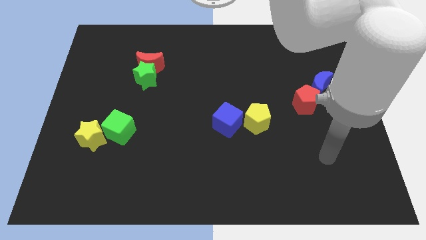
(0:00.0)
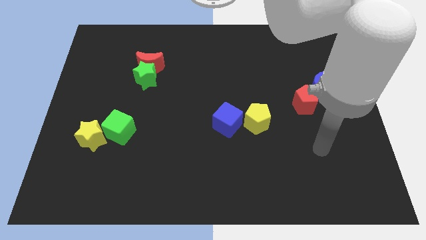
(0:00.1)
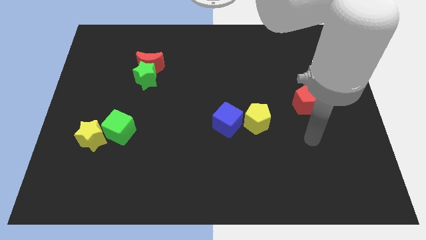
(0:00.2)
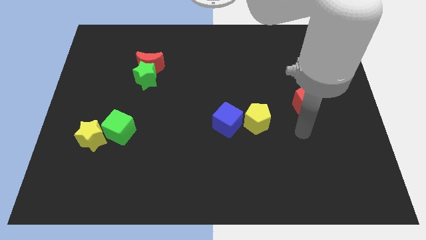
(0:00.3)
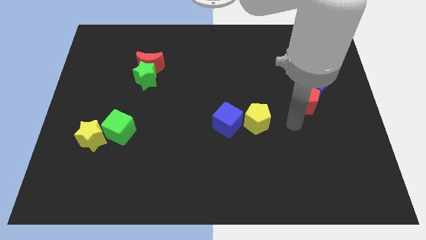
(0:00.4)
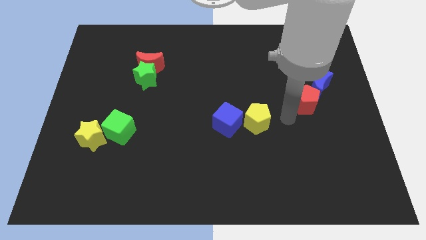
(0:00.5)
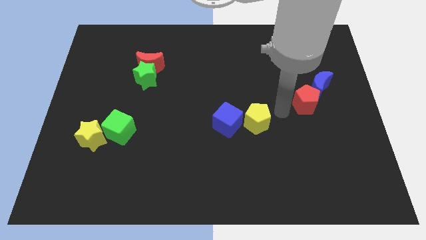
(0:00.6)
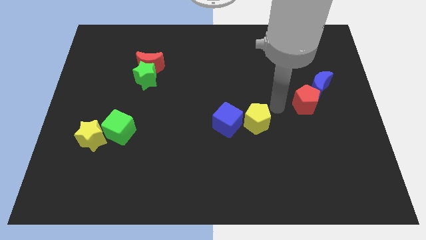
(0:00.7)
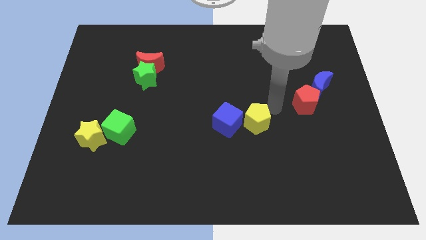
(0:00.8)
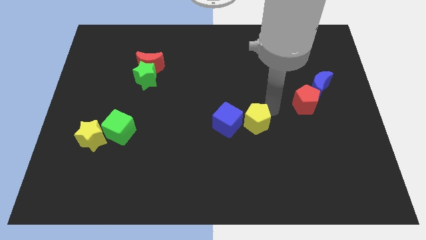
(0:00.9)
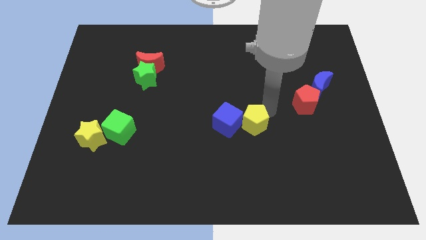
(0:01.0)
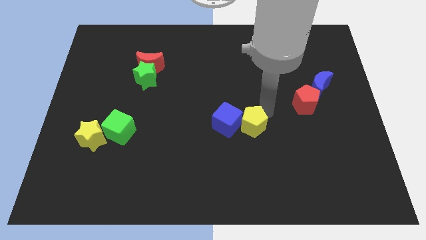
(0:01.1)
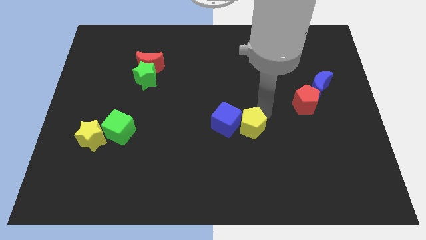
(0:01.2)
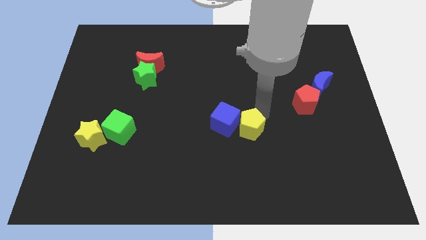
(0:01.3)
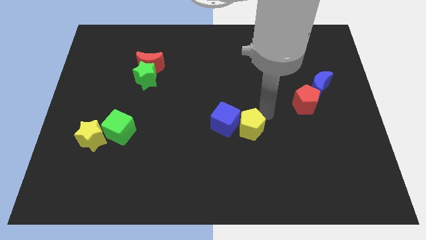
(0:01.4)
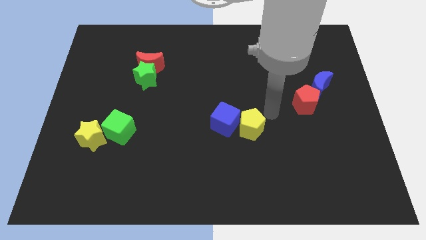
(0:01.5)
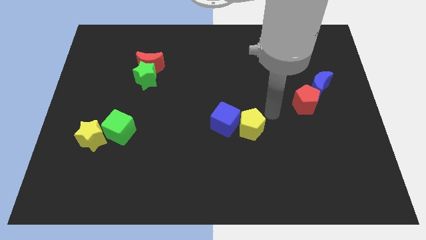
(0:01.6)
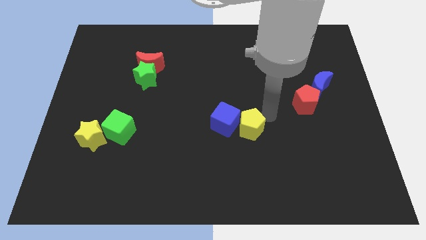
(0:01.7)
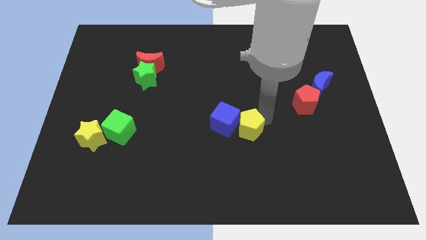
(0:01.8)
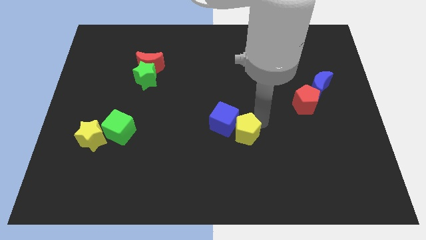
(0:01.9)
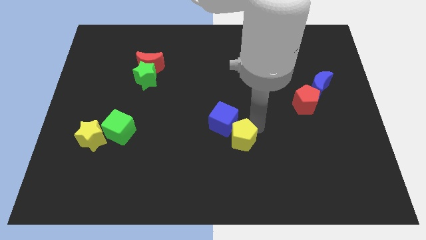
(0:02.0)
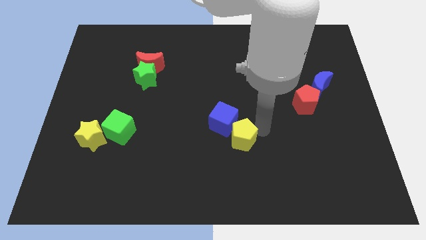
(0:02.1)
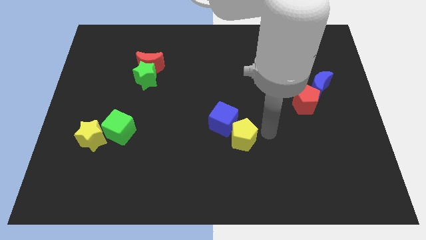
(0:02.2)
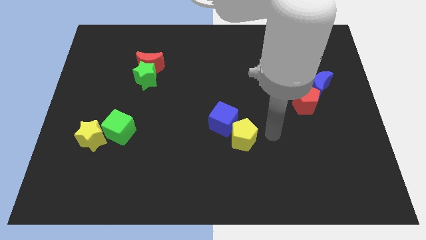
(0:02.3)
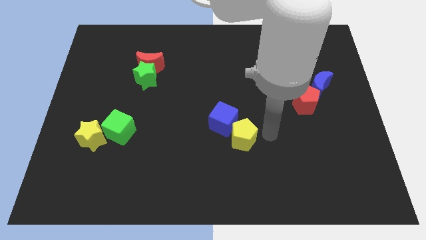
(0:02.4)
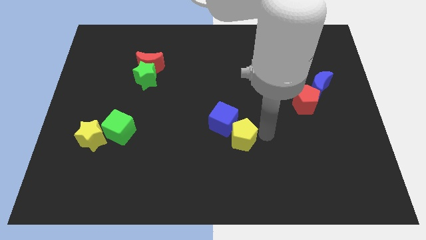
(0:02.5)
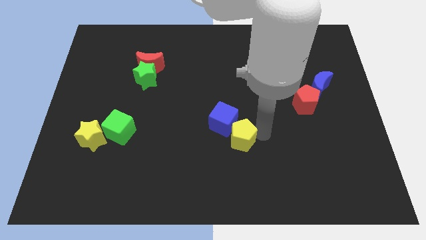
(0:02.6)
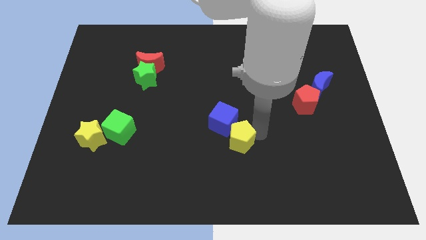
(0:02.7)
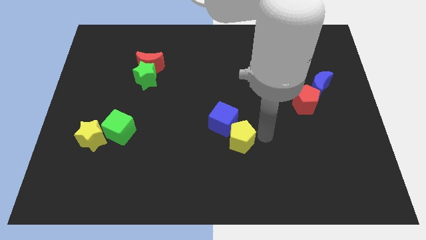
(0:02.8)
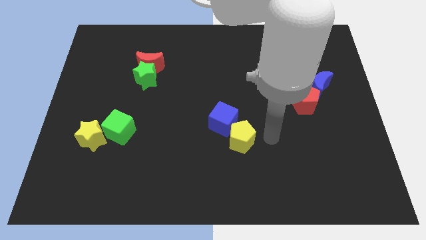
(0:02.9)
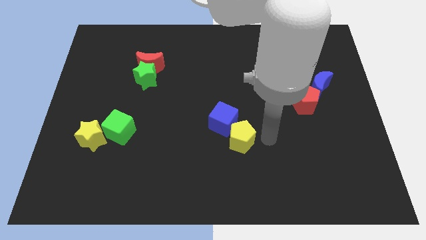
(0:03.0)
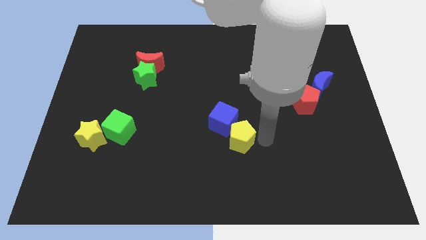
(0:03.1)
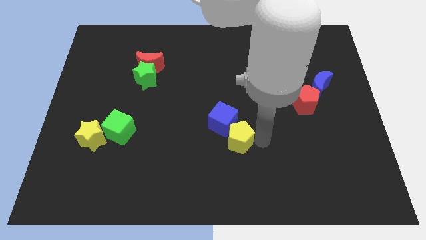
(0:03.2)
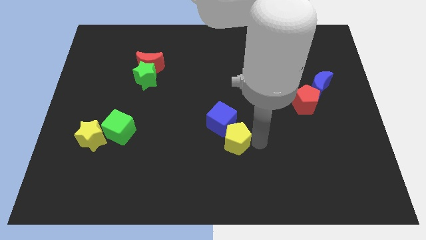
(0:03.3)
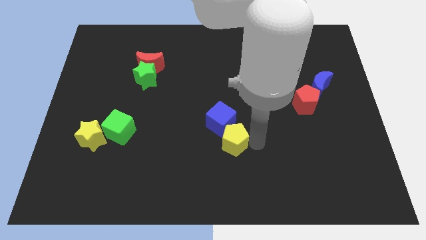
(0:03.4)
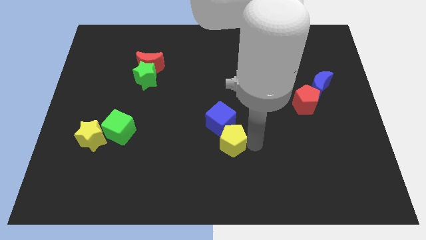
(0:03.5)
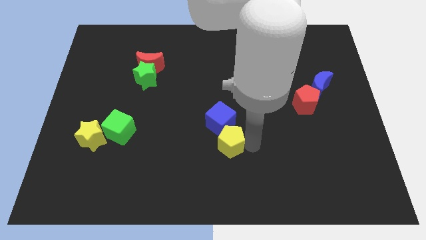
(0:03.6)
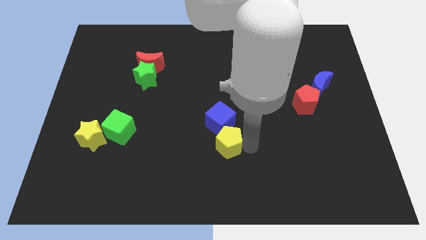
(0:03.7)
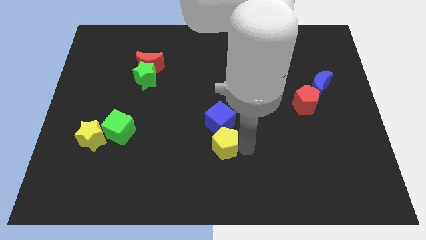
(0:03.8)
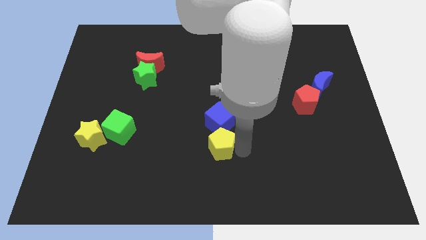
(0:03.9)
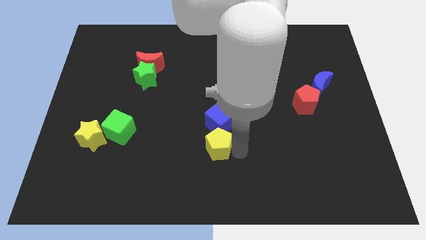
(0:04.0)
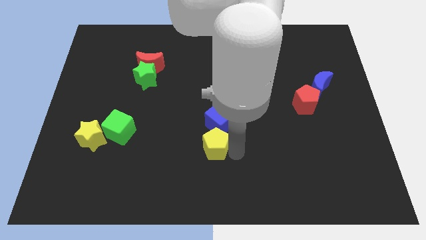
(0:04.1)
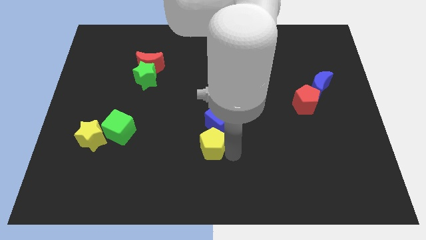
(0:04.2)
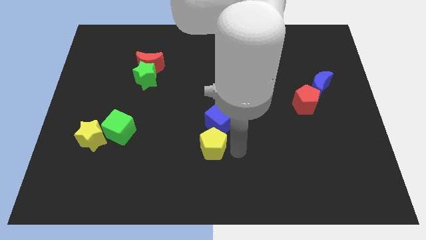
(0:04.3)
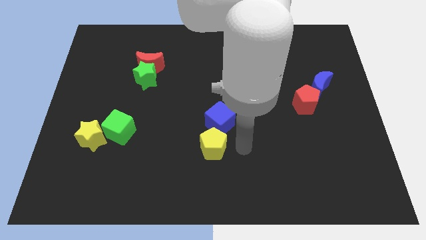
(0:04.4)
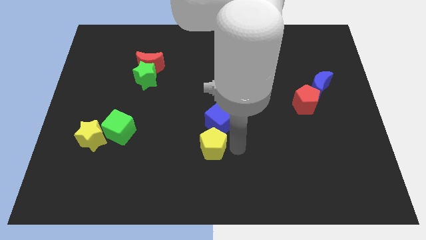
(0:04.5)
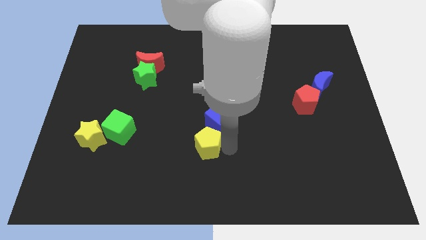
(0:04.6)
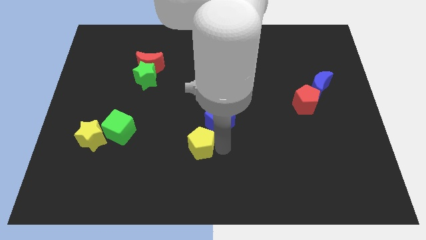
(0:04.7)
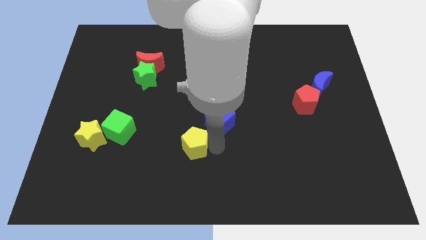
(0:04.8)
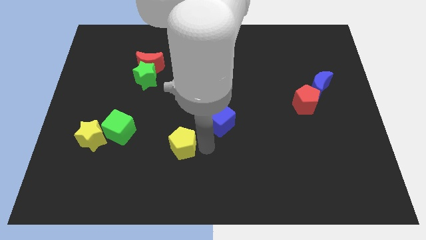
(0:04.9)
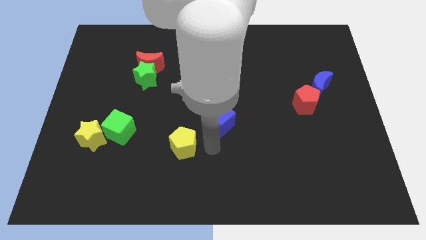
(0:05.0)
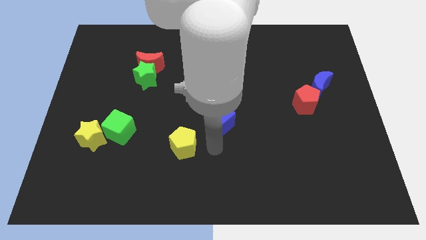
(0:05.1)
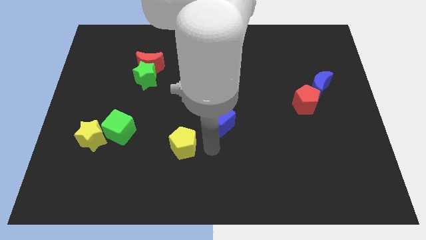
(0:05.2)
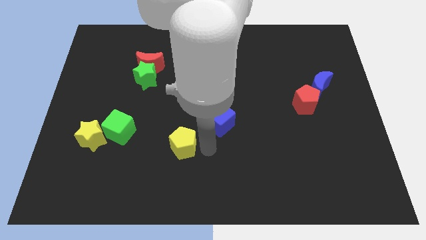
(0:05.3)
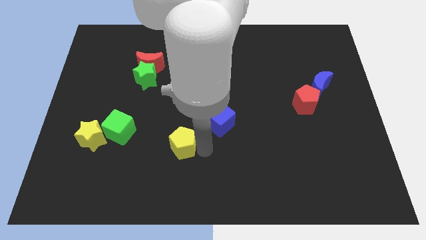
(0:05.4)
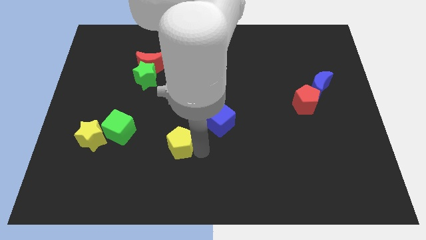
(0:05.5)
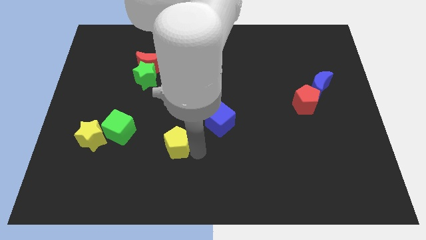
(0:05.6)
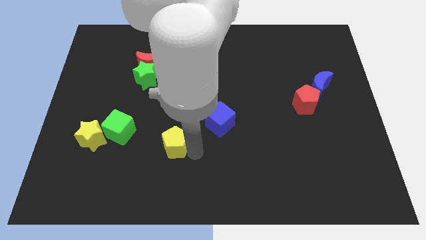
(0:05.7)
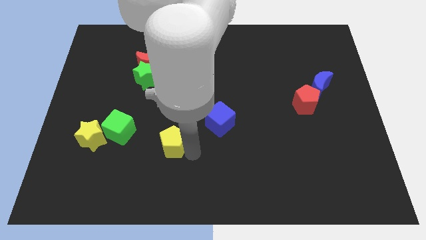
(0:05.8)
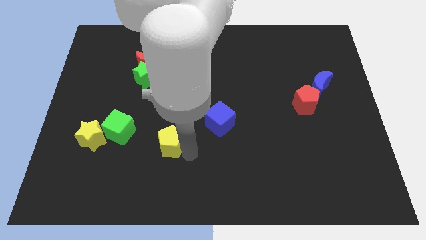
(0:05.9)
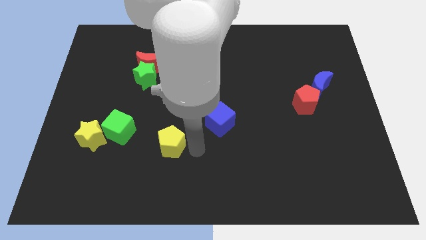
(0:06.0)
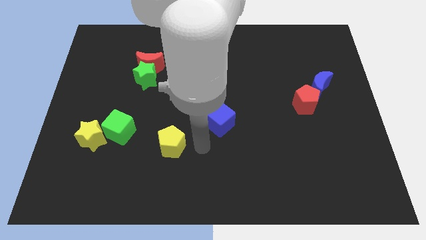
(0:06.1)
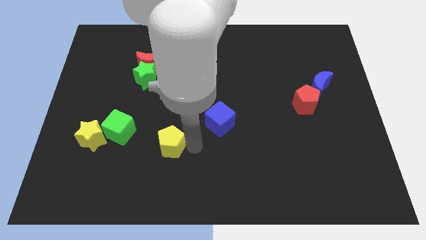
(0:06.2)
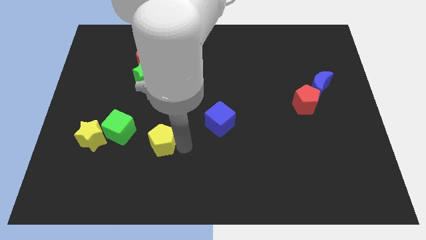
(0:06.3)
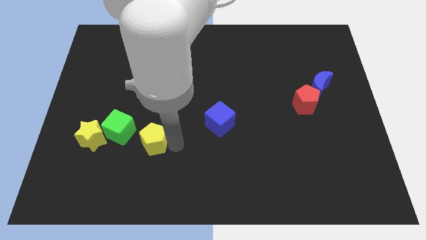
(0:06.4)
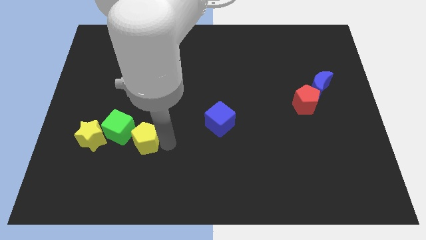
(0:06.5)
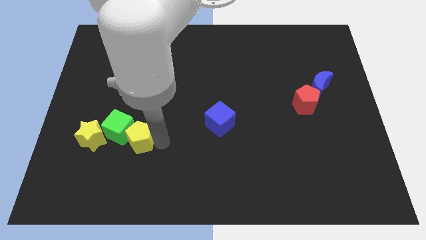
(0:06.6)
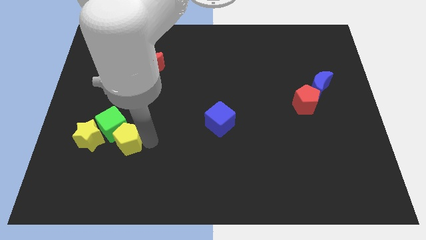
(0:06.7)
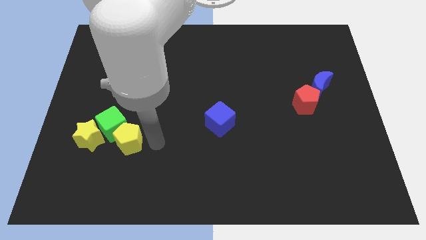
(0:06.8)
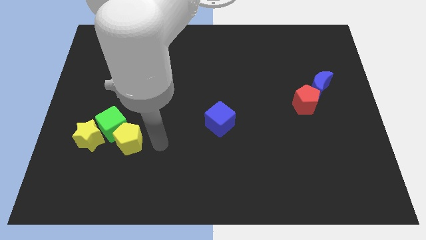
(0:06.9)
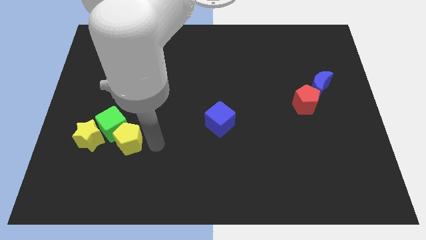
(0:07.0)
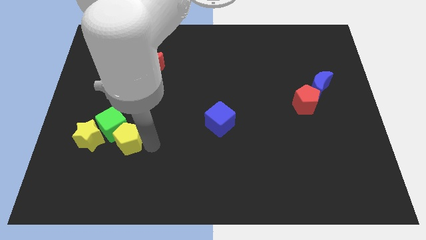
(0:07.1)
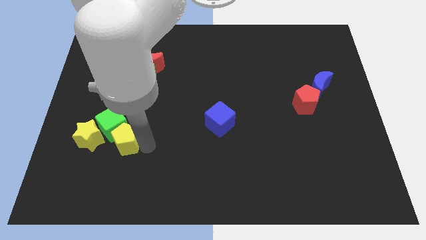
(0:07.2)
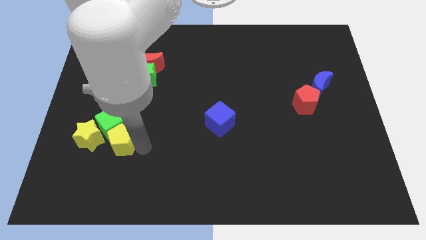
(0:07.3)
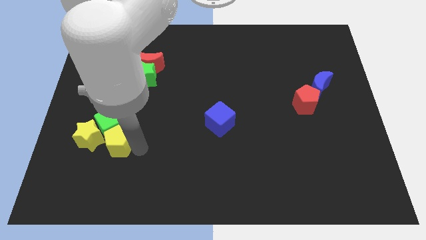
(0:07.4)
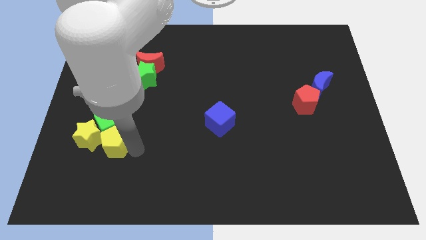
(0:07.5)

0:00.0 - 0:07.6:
put the yellow pentagon to the yellow star

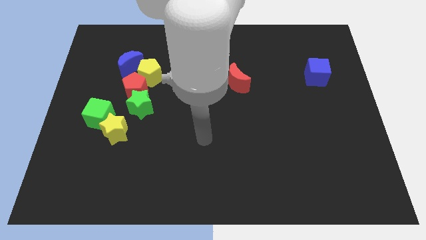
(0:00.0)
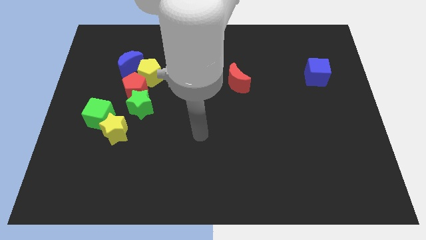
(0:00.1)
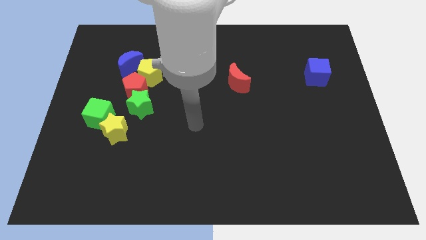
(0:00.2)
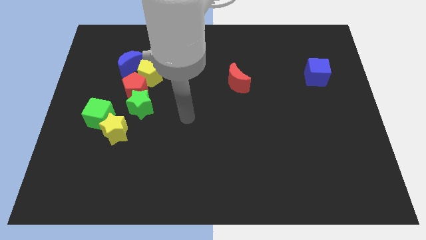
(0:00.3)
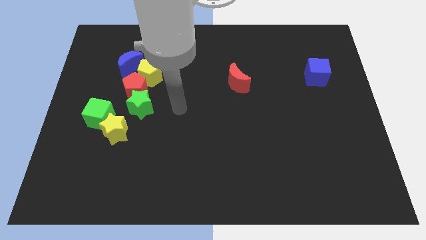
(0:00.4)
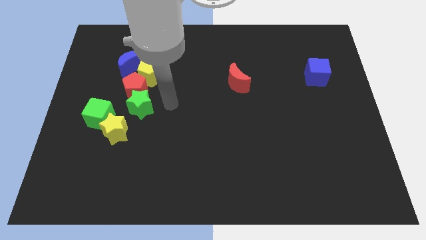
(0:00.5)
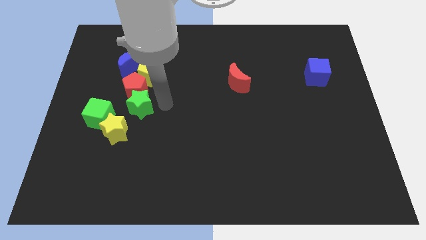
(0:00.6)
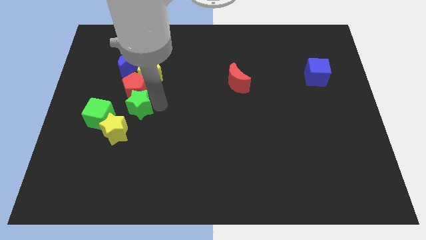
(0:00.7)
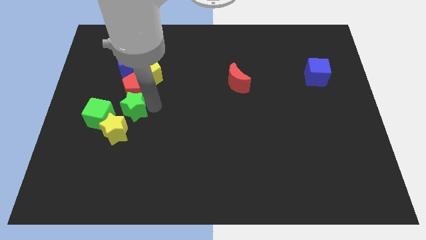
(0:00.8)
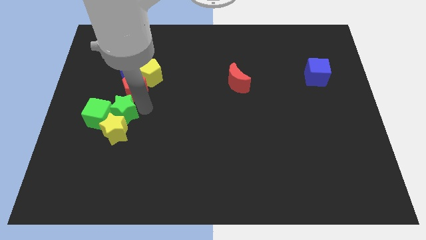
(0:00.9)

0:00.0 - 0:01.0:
slide the green star towards the green cube
